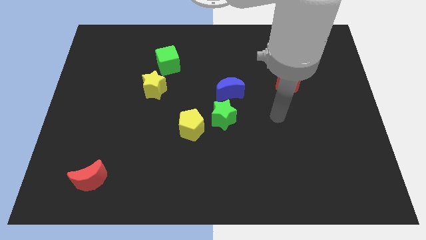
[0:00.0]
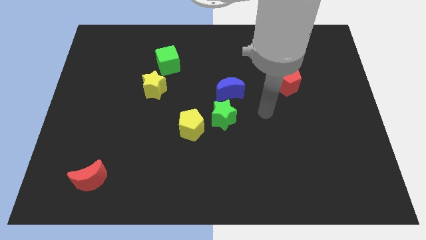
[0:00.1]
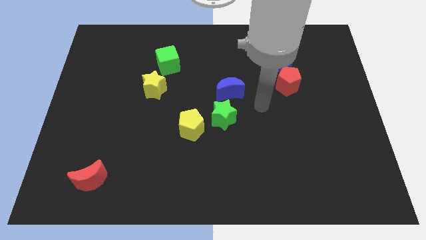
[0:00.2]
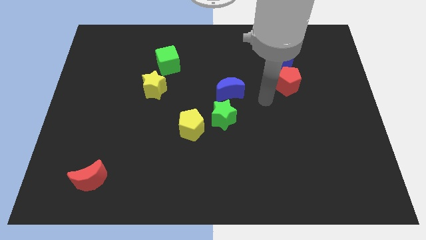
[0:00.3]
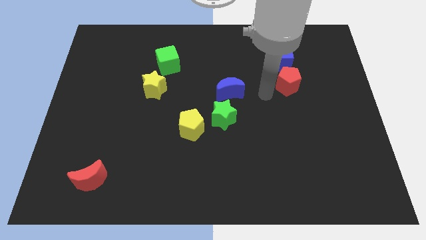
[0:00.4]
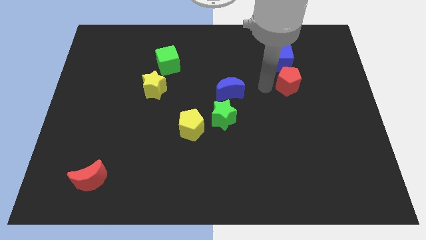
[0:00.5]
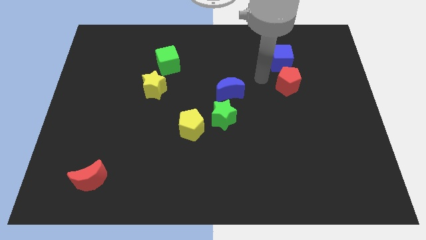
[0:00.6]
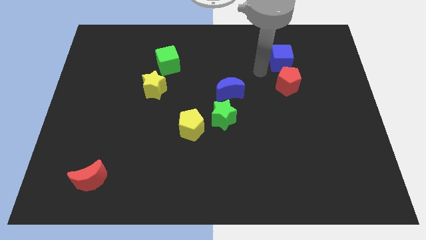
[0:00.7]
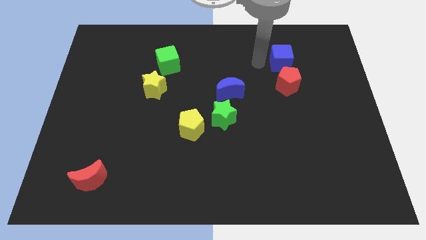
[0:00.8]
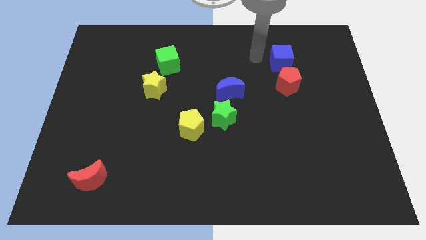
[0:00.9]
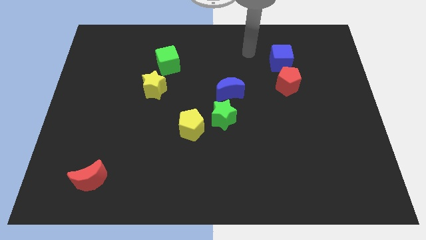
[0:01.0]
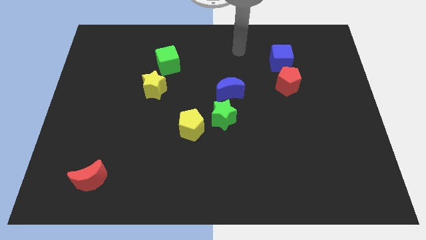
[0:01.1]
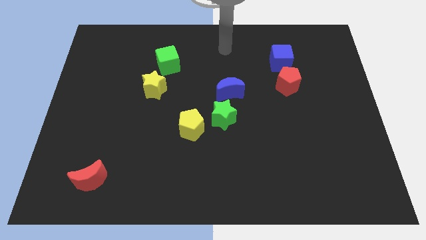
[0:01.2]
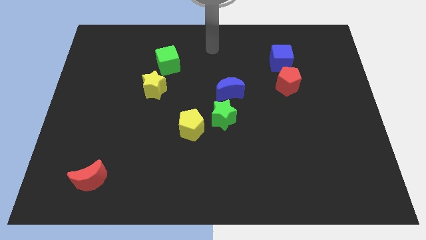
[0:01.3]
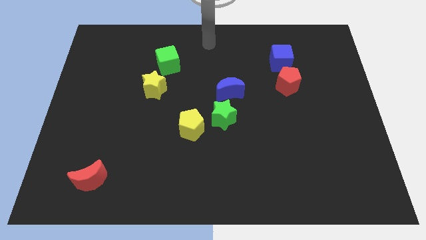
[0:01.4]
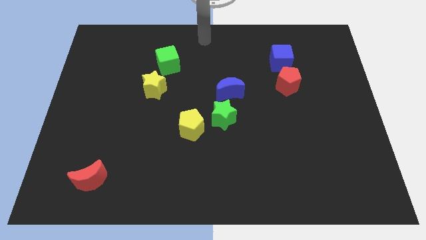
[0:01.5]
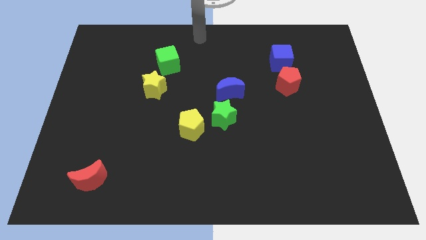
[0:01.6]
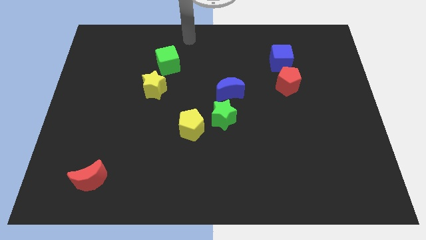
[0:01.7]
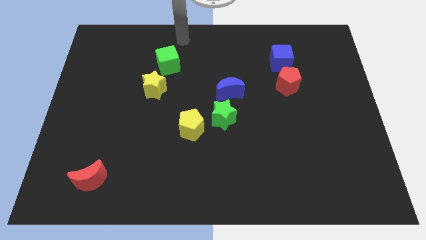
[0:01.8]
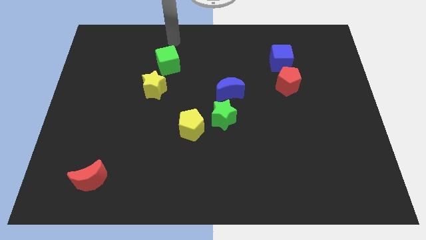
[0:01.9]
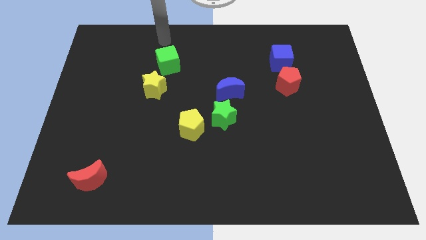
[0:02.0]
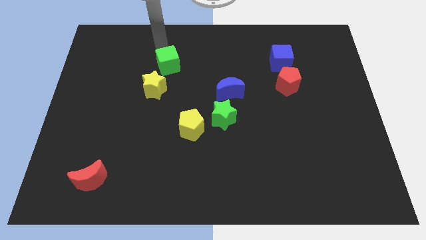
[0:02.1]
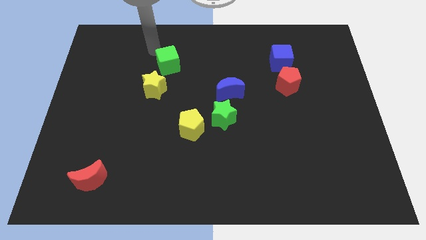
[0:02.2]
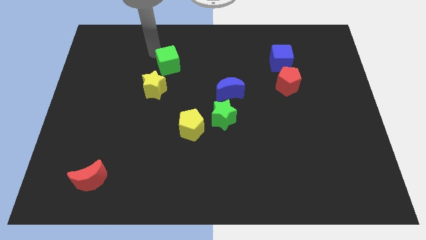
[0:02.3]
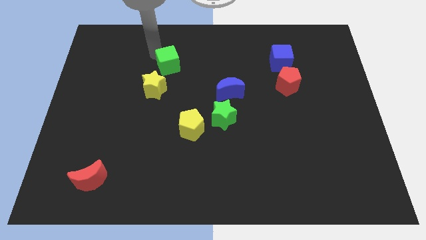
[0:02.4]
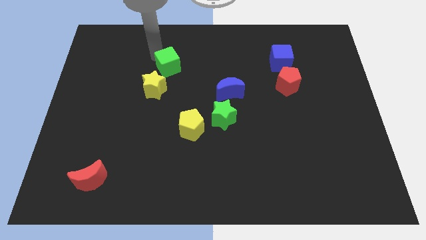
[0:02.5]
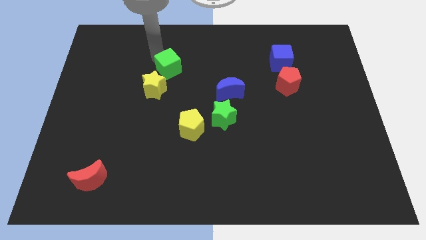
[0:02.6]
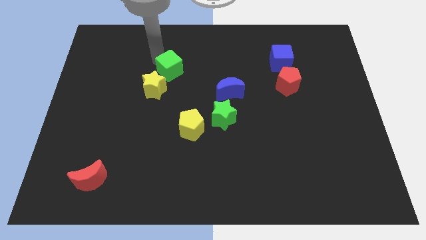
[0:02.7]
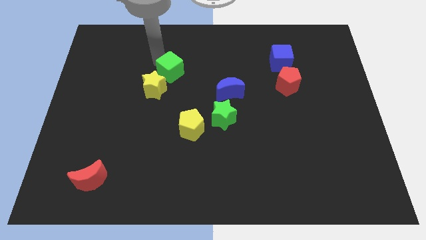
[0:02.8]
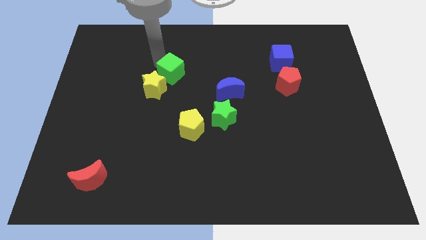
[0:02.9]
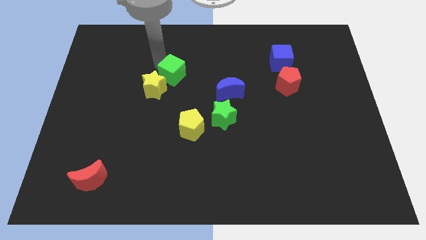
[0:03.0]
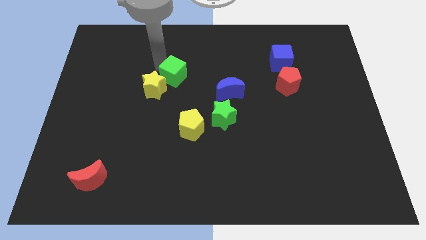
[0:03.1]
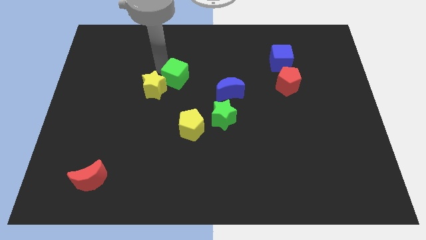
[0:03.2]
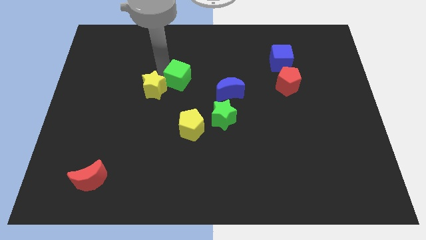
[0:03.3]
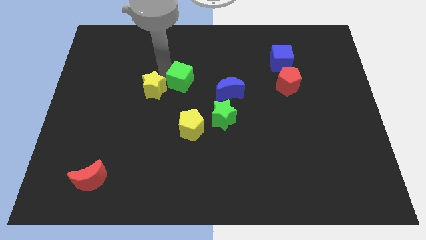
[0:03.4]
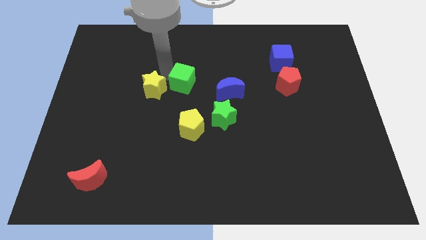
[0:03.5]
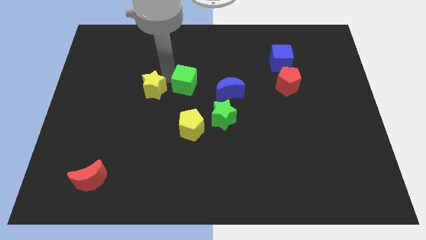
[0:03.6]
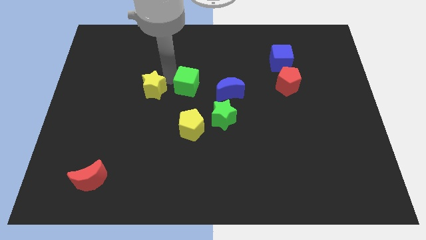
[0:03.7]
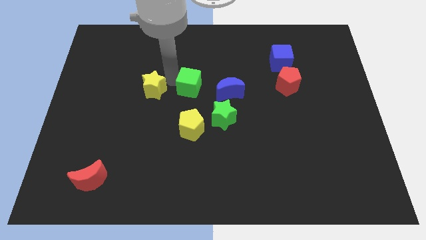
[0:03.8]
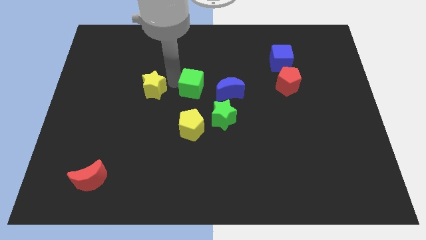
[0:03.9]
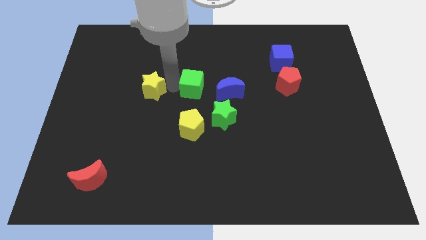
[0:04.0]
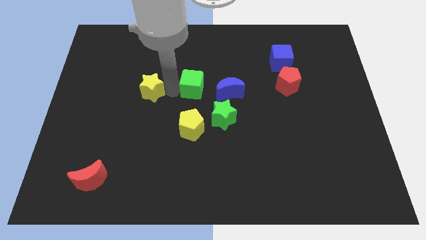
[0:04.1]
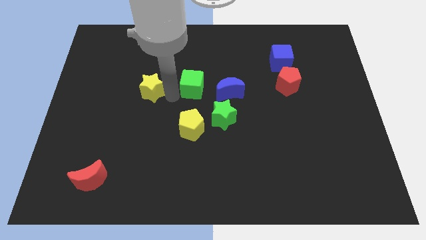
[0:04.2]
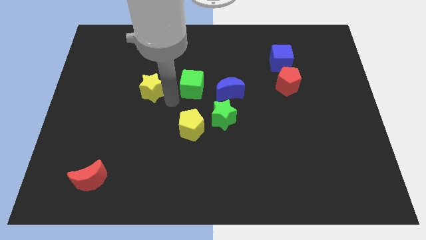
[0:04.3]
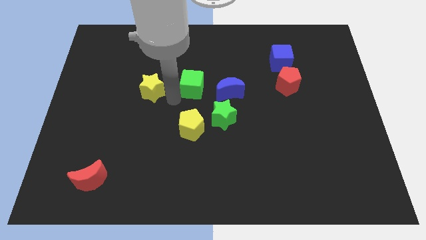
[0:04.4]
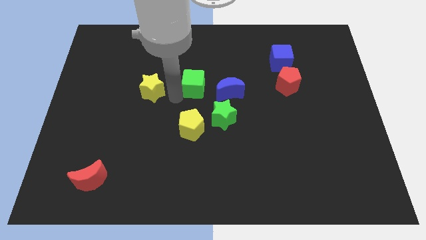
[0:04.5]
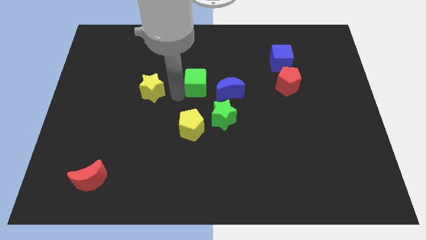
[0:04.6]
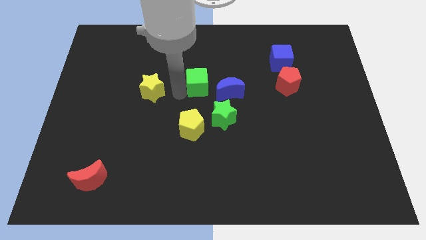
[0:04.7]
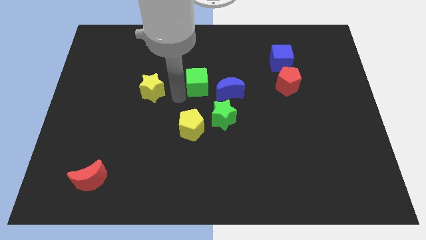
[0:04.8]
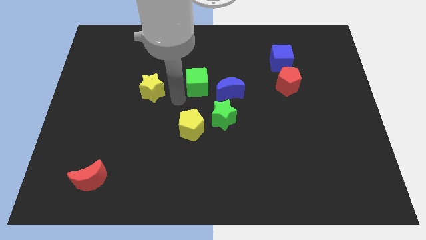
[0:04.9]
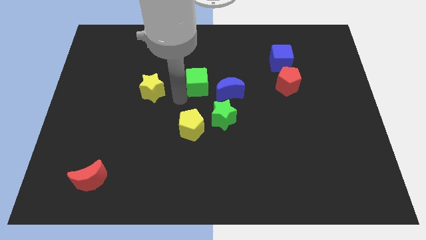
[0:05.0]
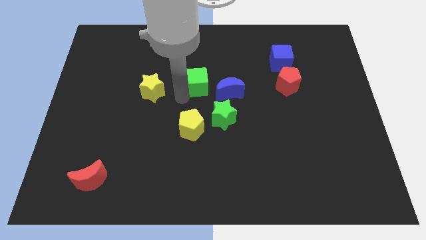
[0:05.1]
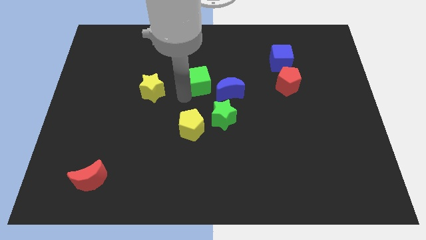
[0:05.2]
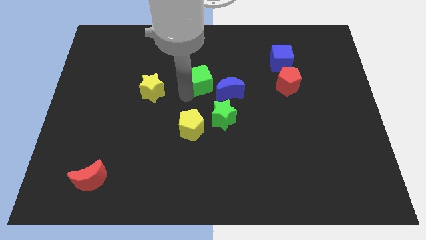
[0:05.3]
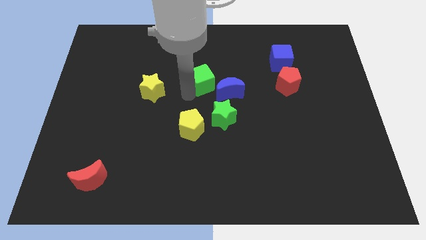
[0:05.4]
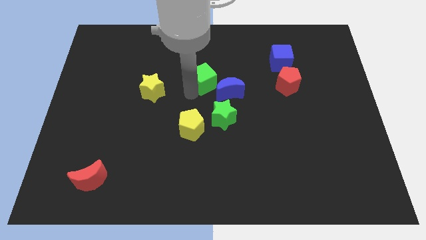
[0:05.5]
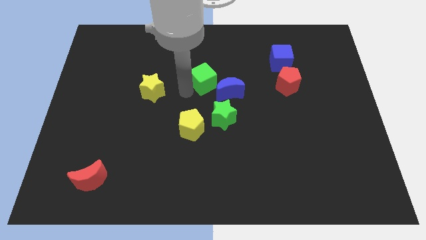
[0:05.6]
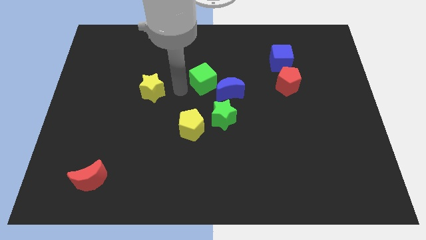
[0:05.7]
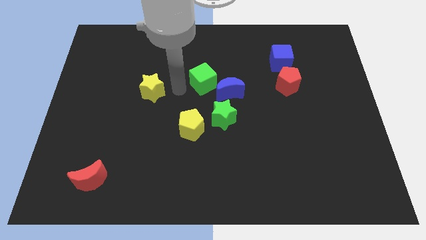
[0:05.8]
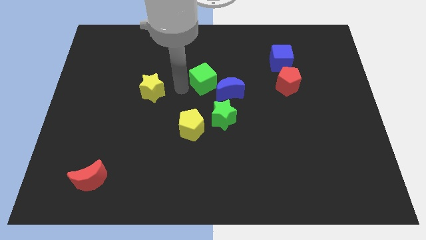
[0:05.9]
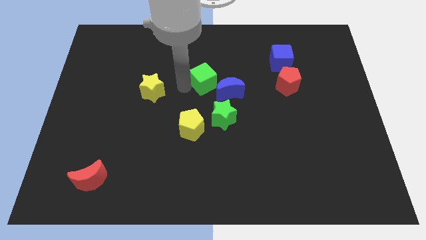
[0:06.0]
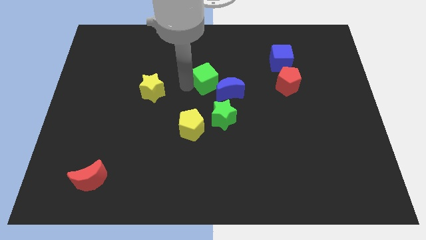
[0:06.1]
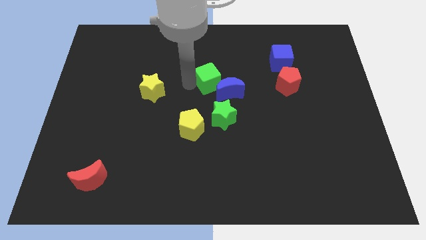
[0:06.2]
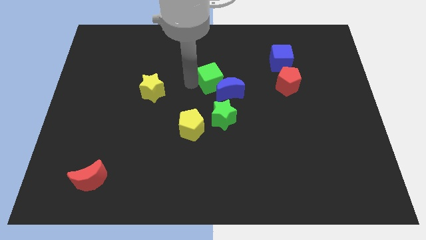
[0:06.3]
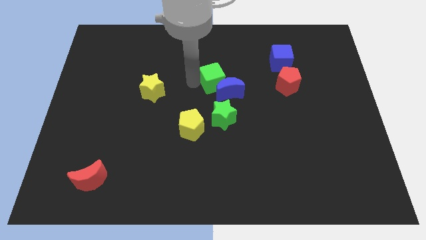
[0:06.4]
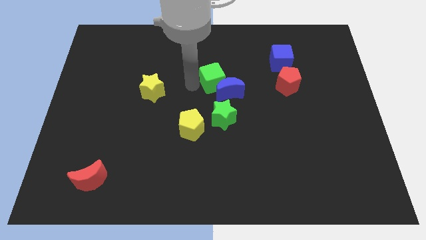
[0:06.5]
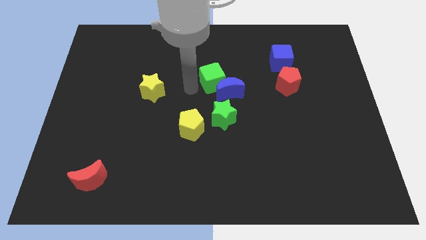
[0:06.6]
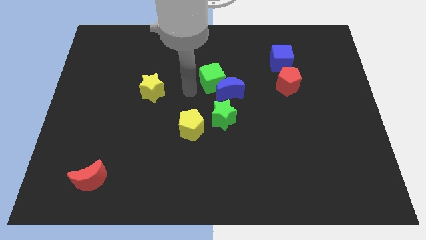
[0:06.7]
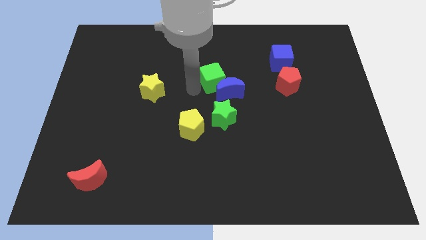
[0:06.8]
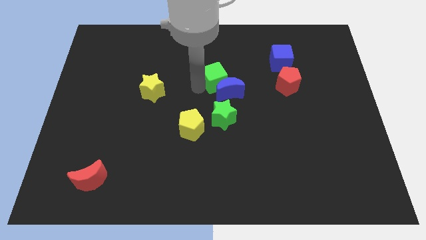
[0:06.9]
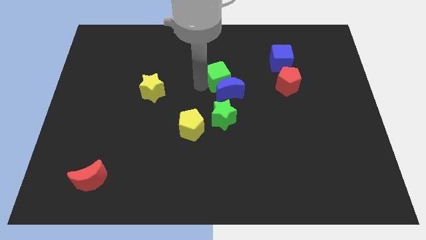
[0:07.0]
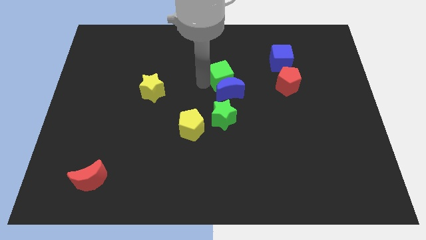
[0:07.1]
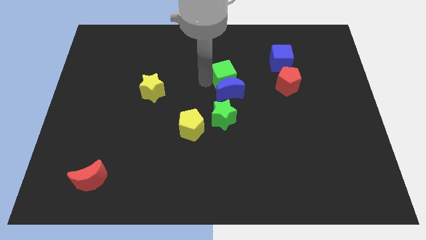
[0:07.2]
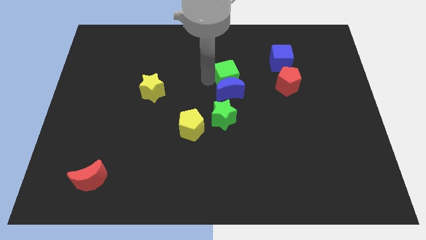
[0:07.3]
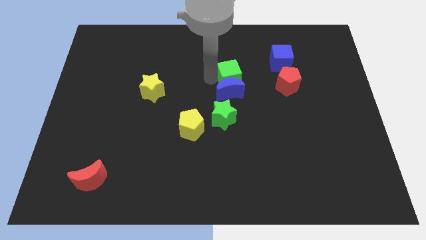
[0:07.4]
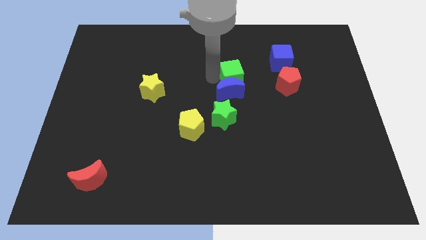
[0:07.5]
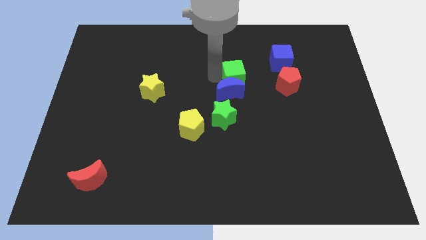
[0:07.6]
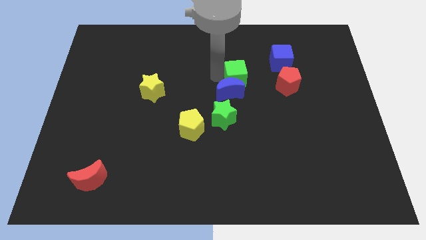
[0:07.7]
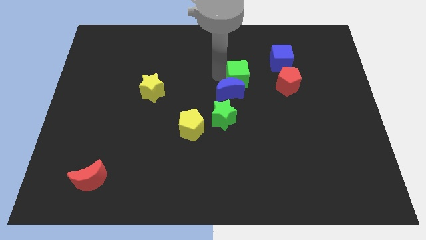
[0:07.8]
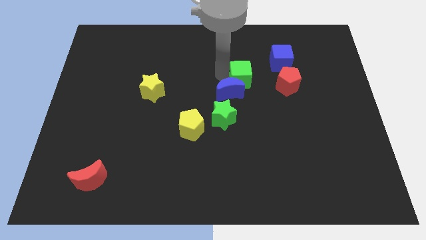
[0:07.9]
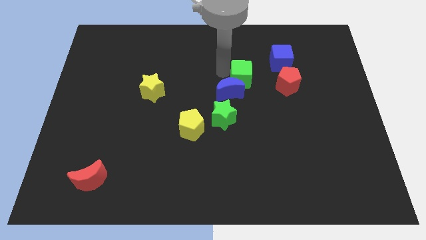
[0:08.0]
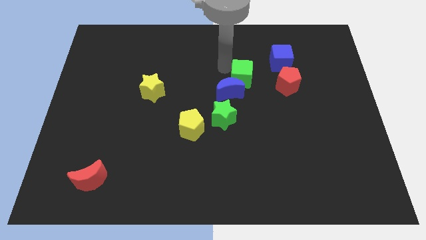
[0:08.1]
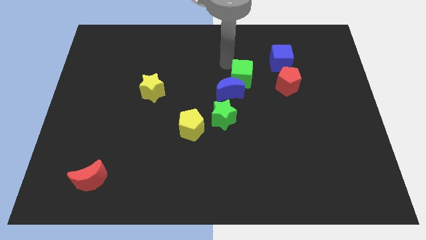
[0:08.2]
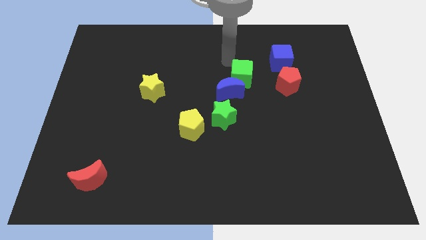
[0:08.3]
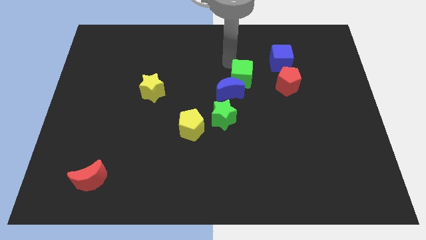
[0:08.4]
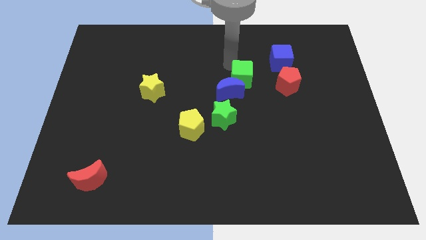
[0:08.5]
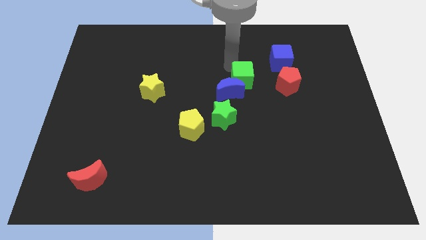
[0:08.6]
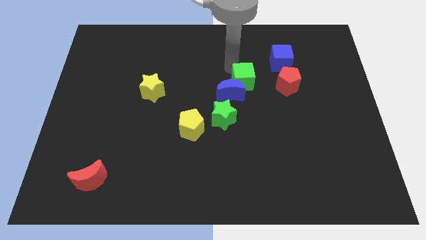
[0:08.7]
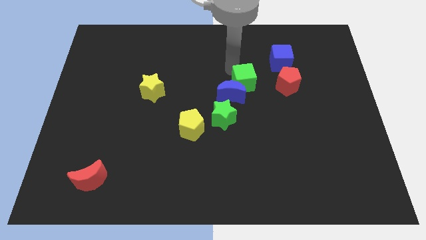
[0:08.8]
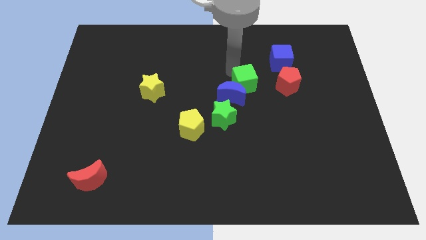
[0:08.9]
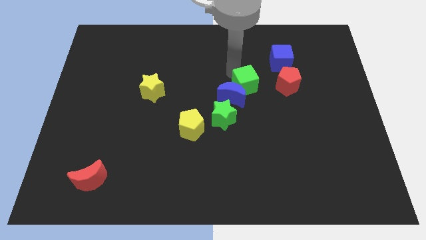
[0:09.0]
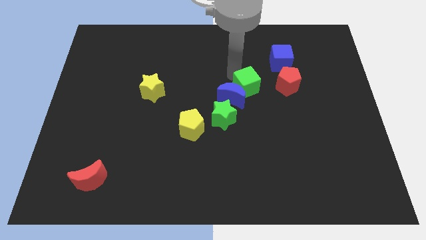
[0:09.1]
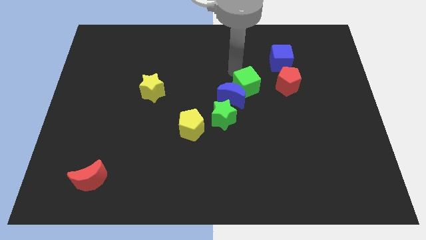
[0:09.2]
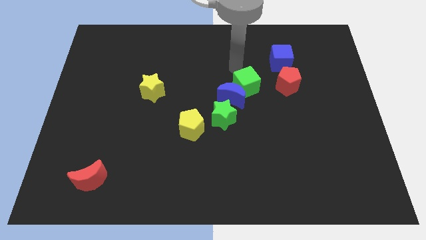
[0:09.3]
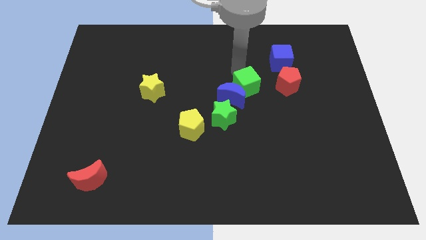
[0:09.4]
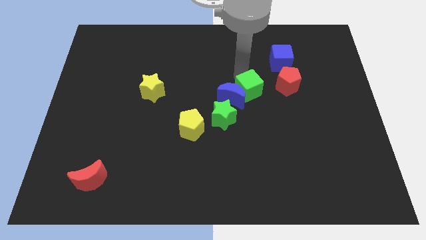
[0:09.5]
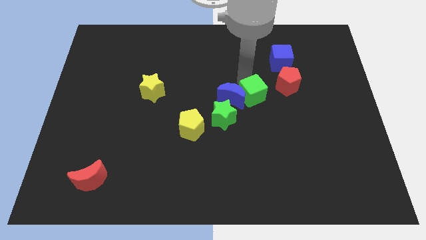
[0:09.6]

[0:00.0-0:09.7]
push the green cube diagonally down and right
